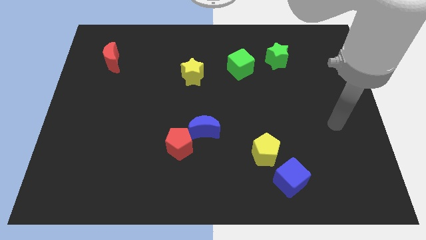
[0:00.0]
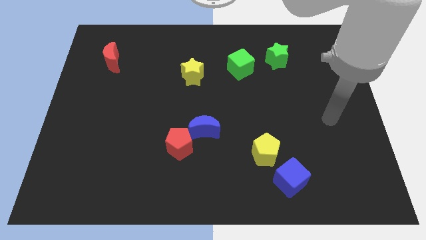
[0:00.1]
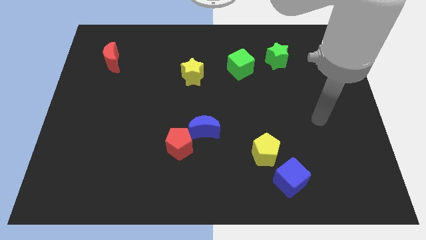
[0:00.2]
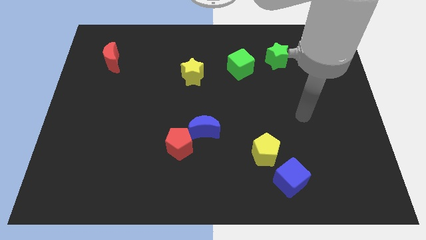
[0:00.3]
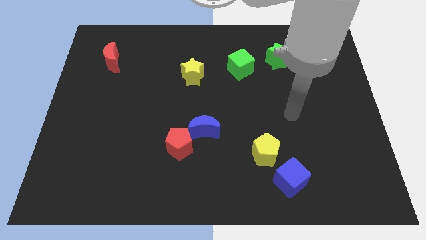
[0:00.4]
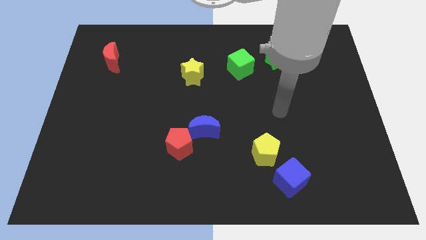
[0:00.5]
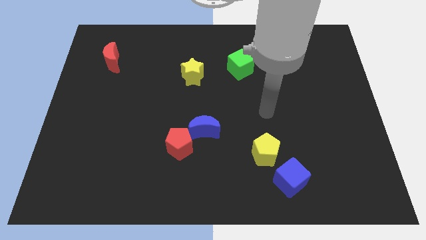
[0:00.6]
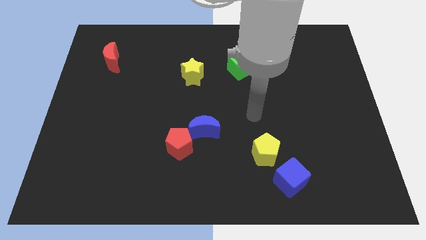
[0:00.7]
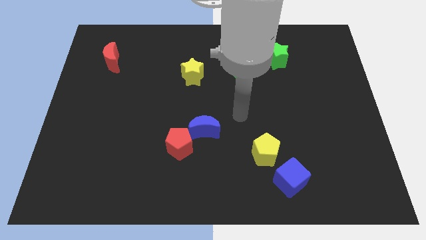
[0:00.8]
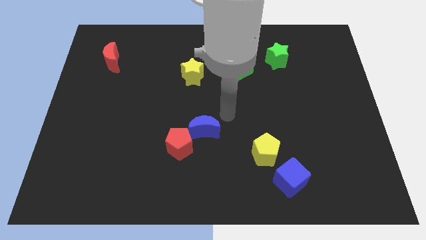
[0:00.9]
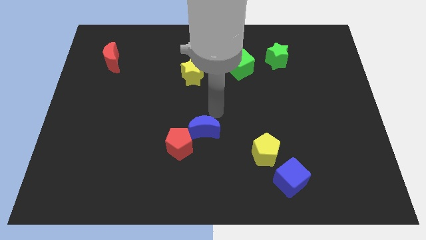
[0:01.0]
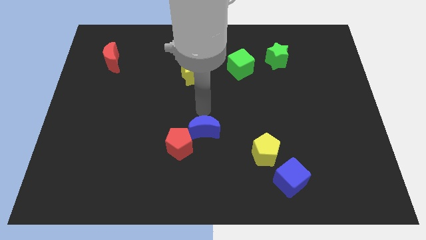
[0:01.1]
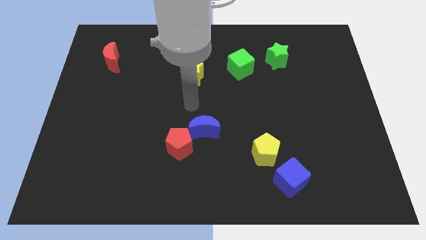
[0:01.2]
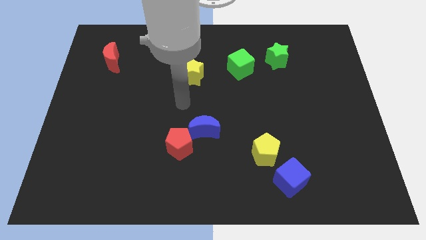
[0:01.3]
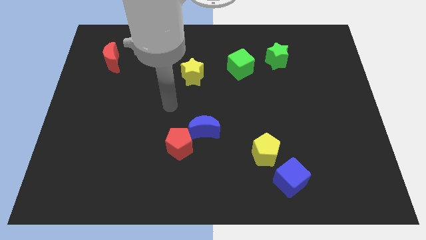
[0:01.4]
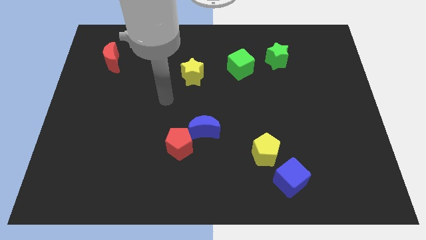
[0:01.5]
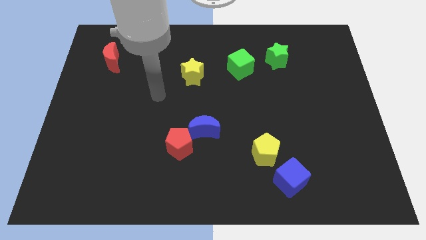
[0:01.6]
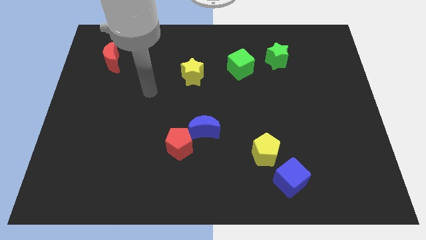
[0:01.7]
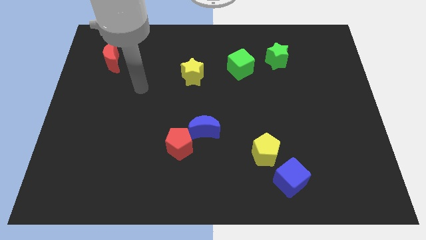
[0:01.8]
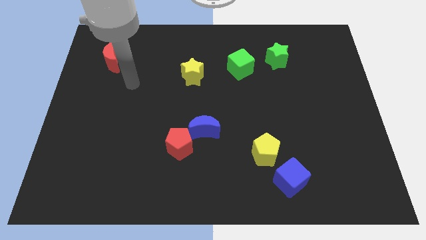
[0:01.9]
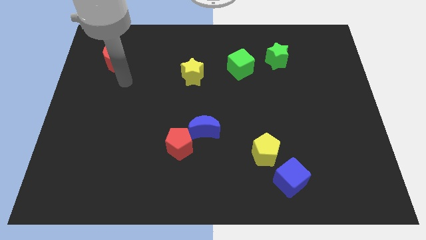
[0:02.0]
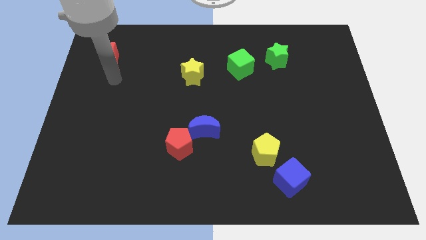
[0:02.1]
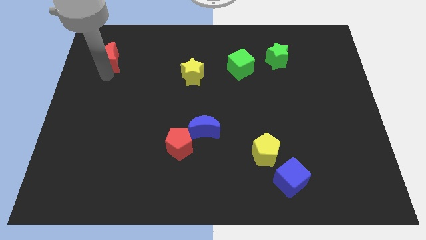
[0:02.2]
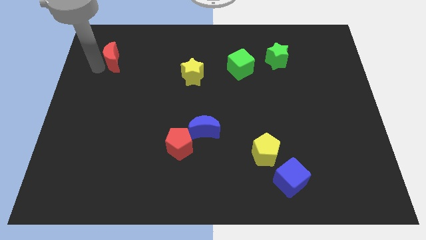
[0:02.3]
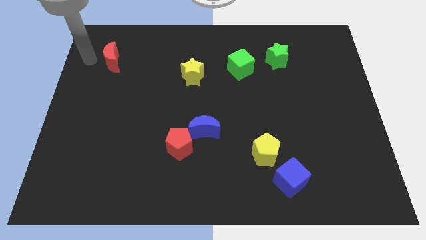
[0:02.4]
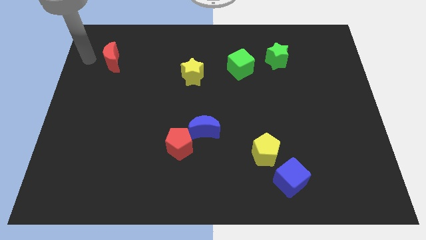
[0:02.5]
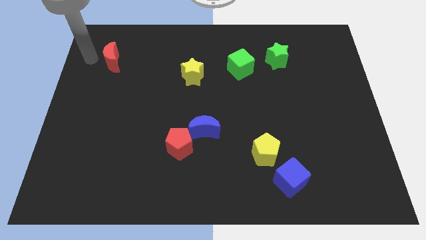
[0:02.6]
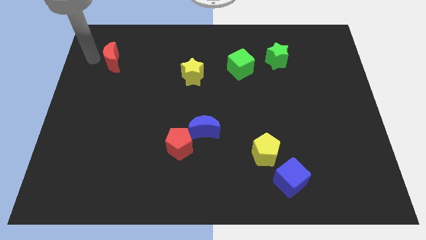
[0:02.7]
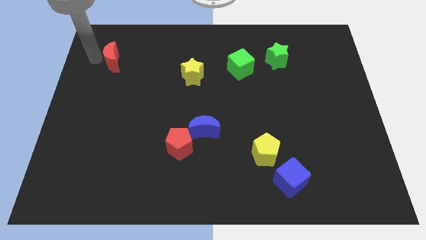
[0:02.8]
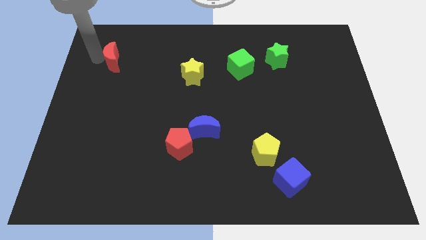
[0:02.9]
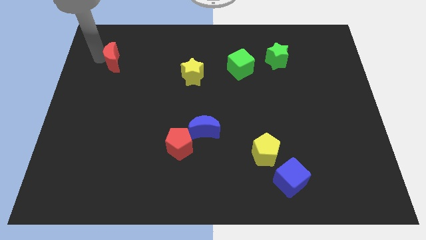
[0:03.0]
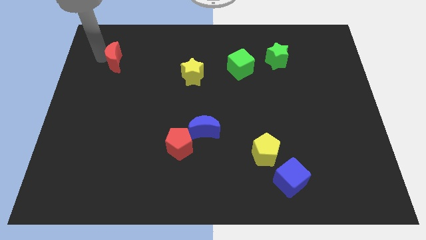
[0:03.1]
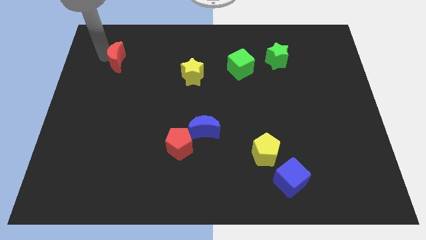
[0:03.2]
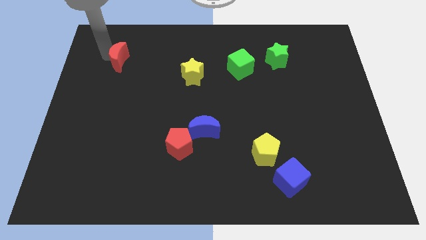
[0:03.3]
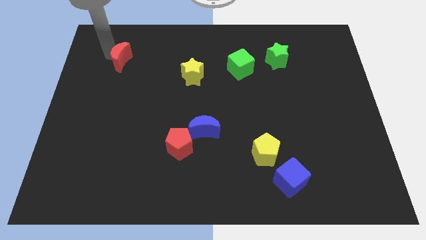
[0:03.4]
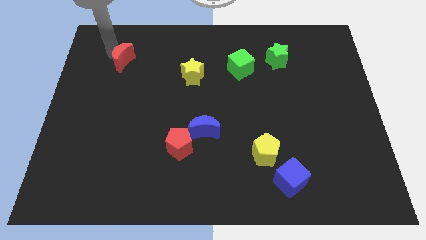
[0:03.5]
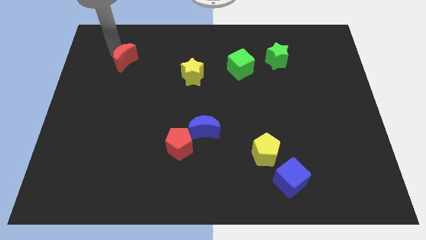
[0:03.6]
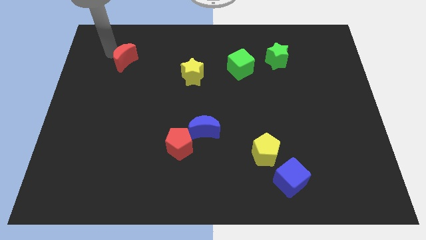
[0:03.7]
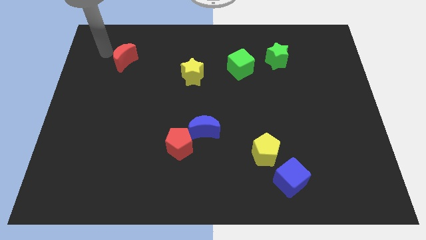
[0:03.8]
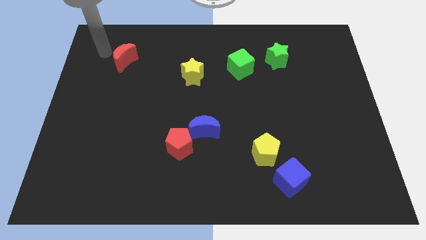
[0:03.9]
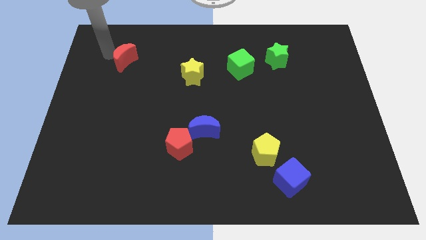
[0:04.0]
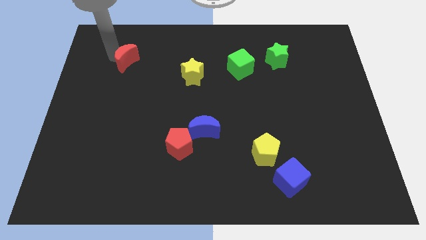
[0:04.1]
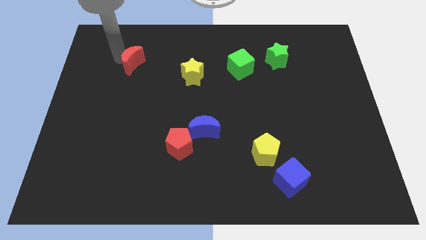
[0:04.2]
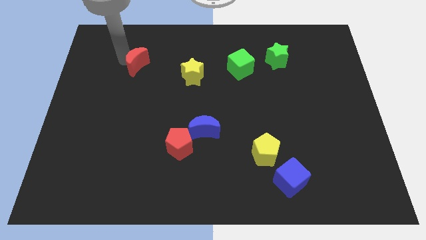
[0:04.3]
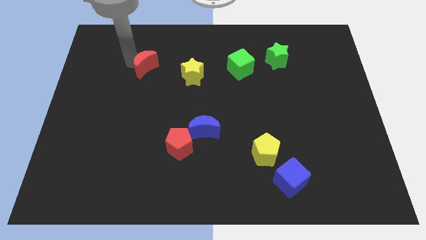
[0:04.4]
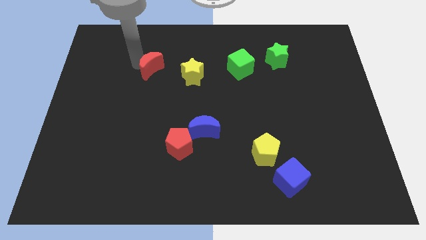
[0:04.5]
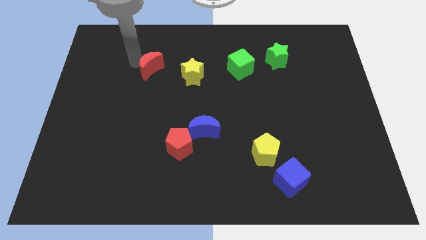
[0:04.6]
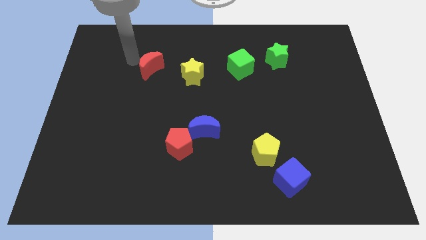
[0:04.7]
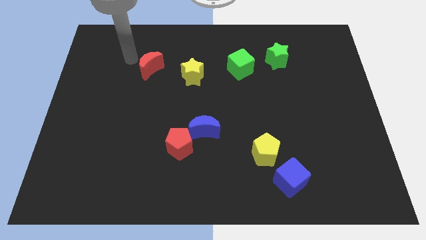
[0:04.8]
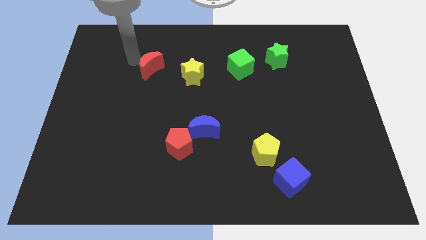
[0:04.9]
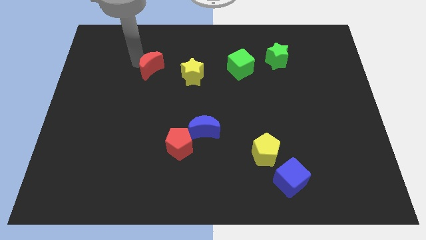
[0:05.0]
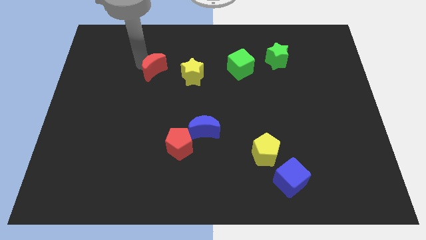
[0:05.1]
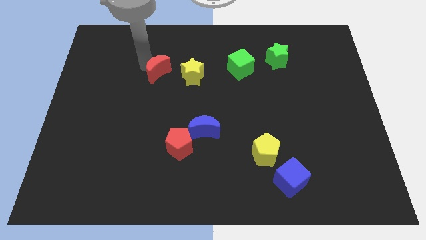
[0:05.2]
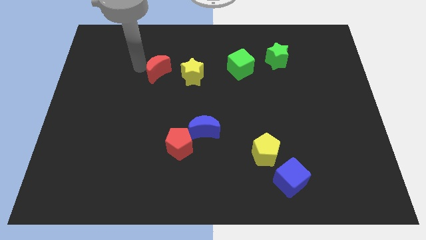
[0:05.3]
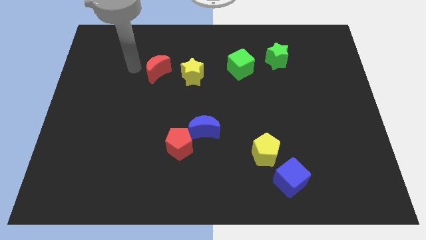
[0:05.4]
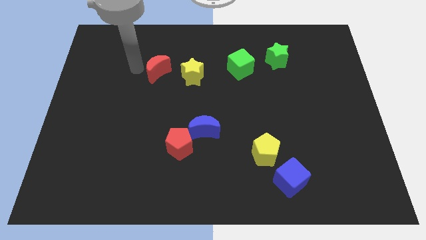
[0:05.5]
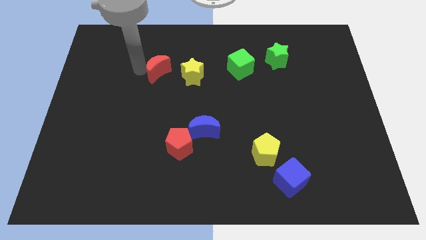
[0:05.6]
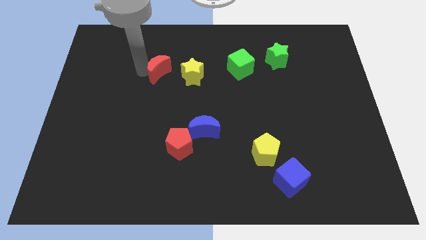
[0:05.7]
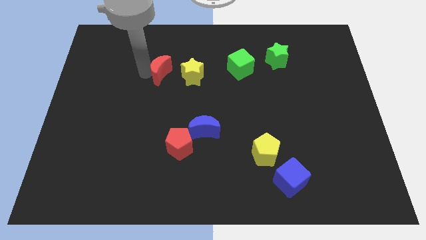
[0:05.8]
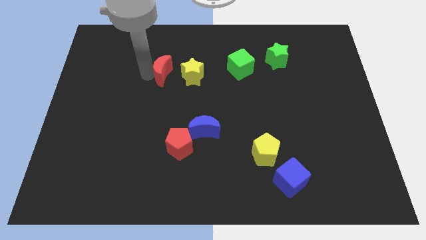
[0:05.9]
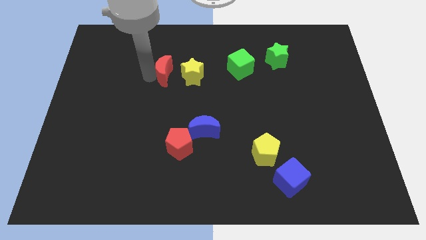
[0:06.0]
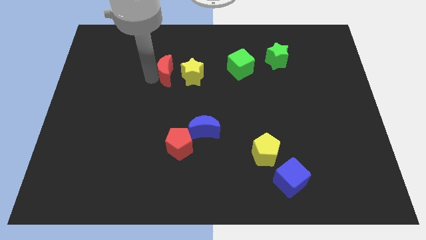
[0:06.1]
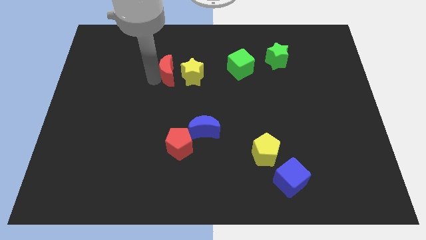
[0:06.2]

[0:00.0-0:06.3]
slide the red moon next to the yellow star

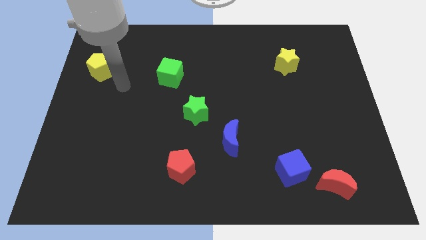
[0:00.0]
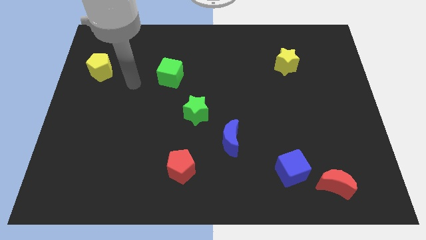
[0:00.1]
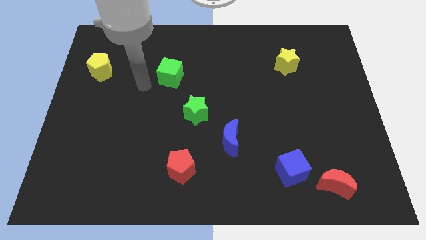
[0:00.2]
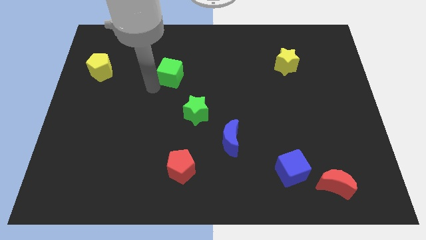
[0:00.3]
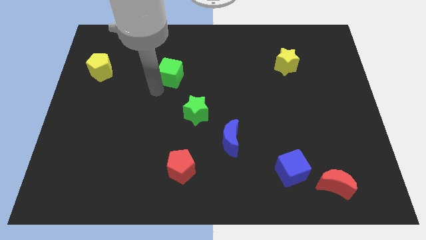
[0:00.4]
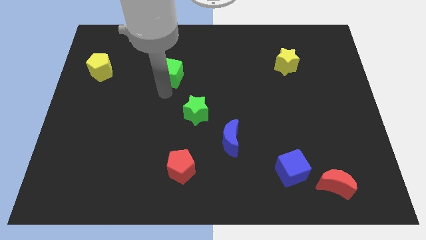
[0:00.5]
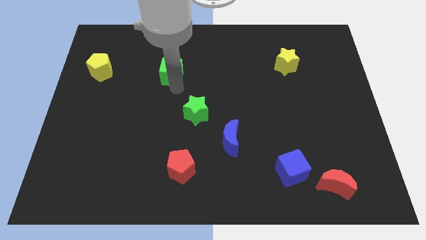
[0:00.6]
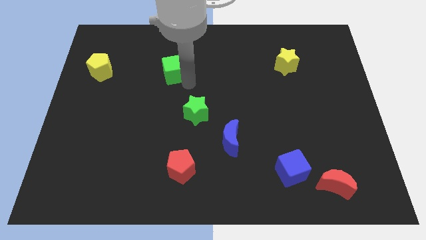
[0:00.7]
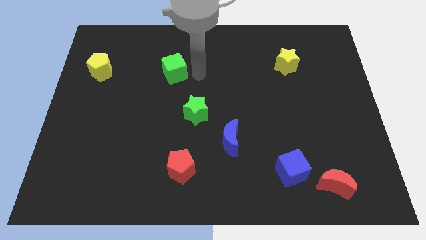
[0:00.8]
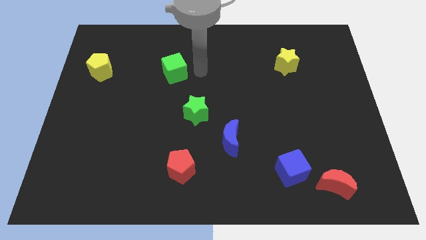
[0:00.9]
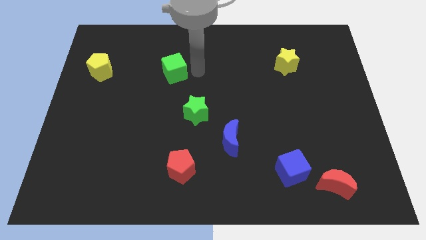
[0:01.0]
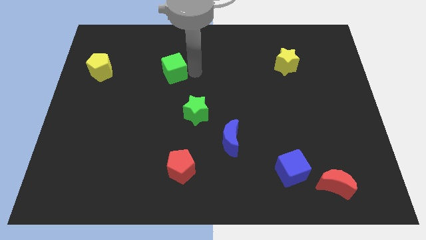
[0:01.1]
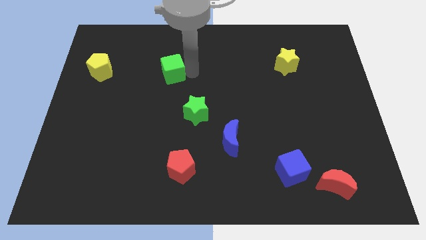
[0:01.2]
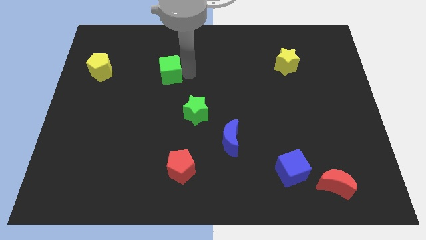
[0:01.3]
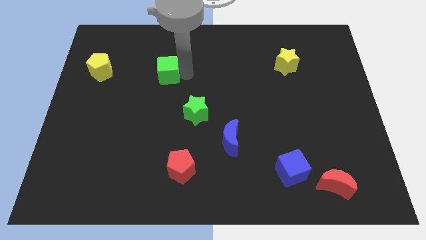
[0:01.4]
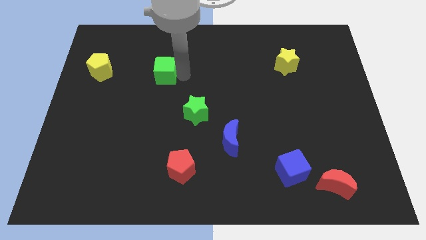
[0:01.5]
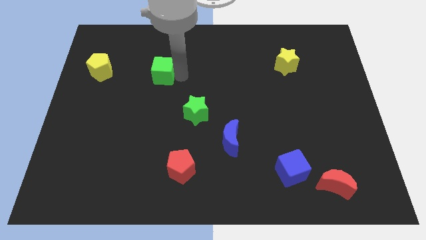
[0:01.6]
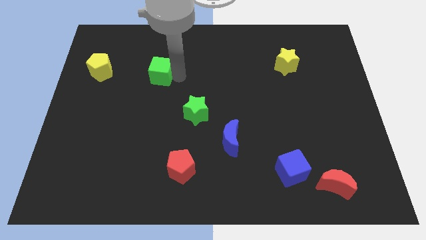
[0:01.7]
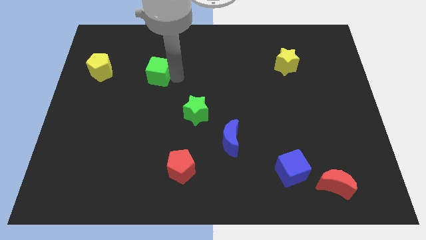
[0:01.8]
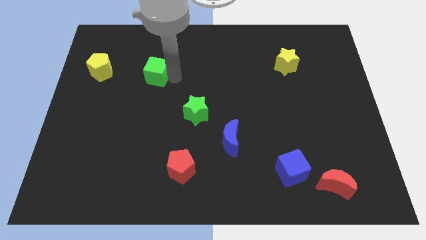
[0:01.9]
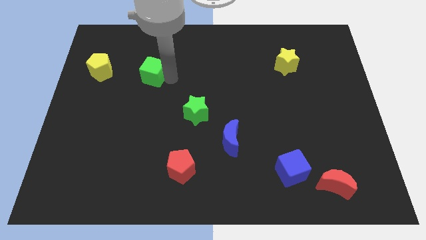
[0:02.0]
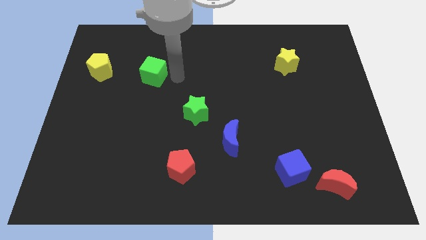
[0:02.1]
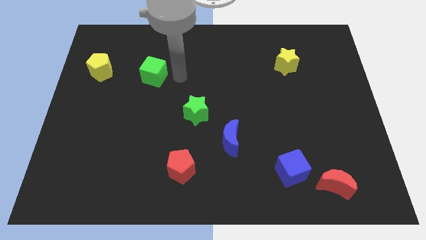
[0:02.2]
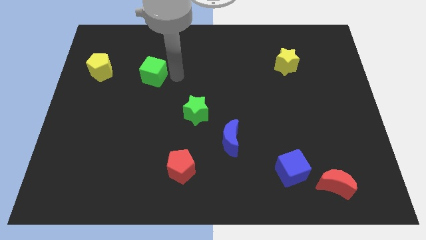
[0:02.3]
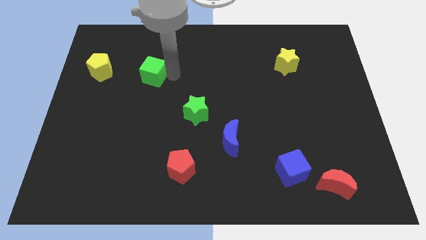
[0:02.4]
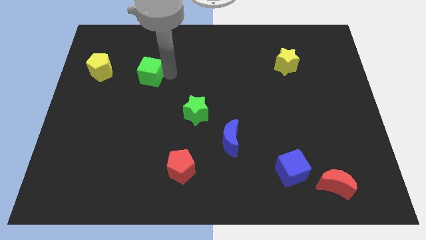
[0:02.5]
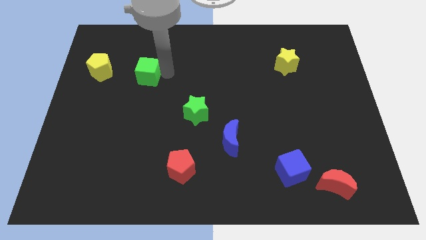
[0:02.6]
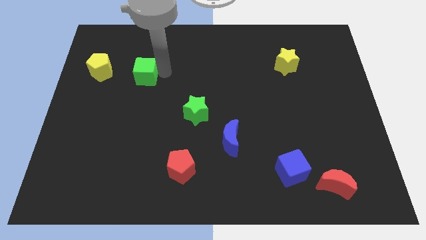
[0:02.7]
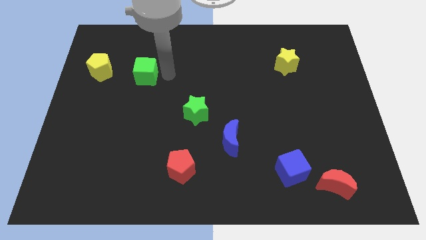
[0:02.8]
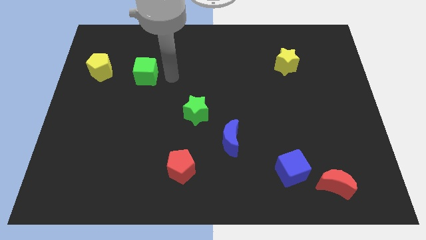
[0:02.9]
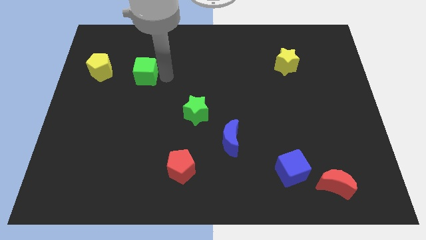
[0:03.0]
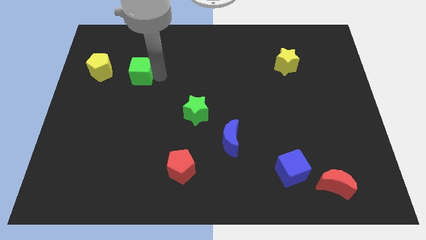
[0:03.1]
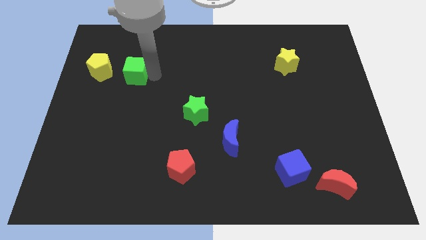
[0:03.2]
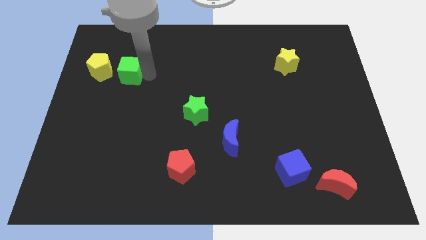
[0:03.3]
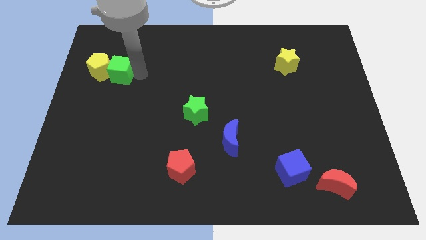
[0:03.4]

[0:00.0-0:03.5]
move the green cube close to the yellow pentagon
